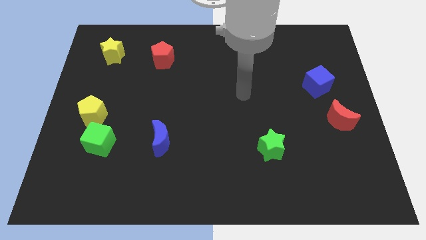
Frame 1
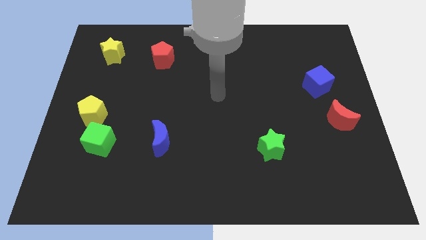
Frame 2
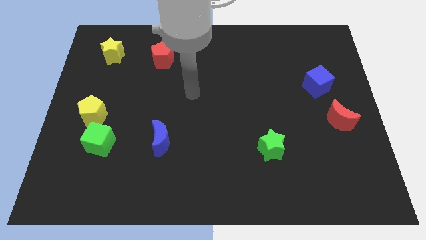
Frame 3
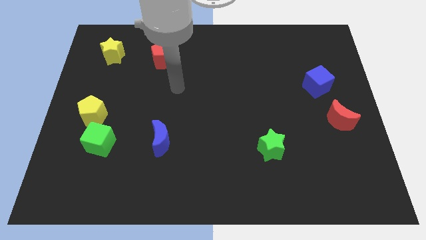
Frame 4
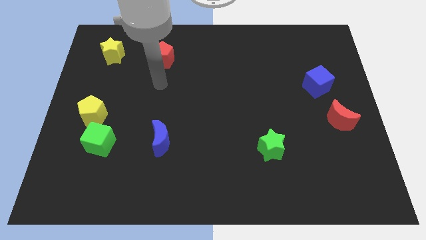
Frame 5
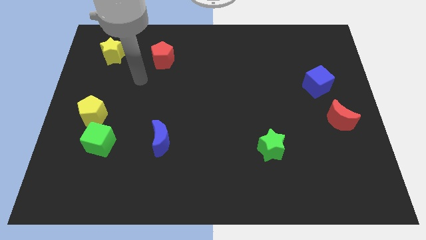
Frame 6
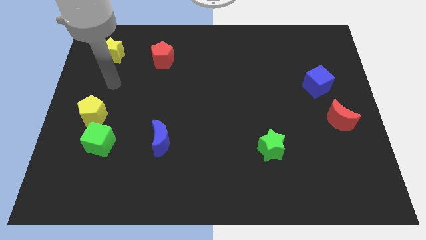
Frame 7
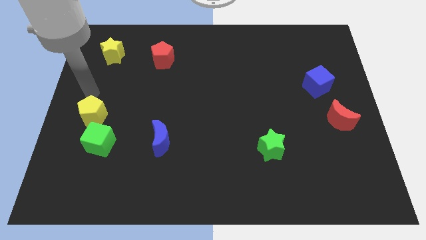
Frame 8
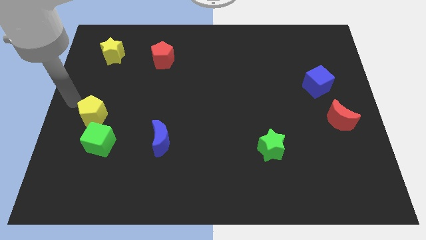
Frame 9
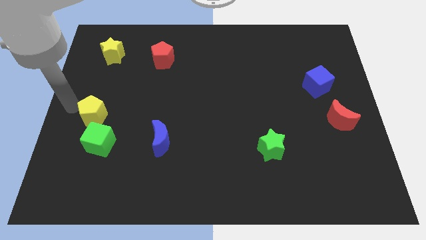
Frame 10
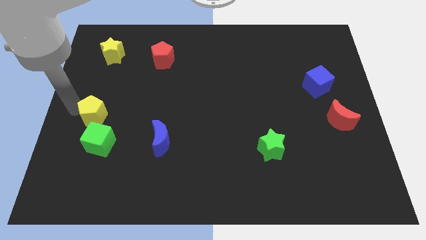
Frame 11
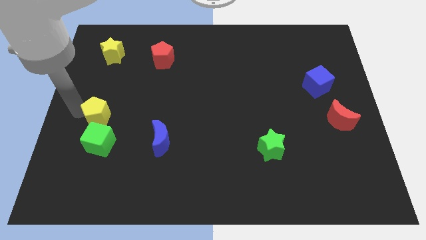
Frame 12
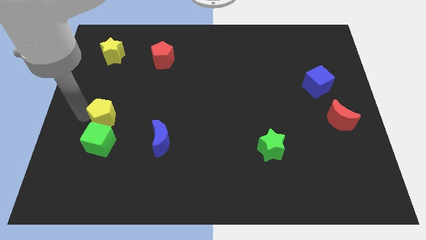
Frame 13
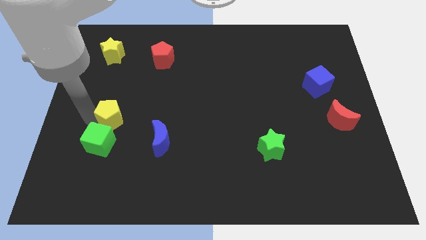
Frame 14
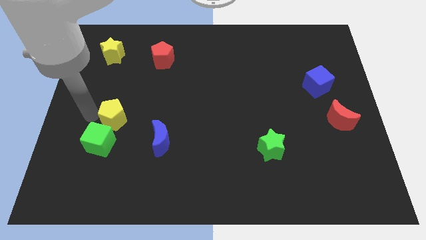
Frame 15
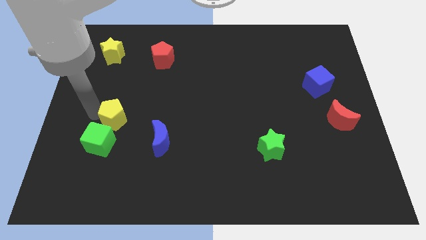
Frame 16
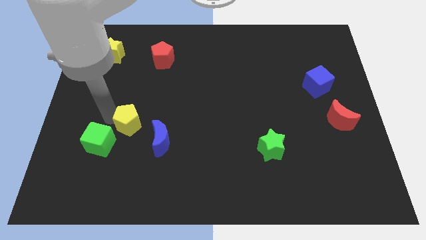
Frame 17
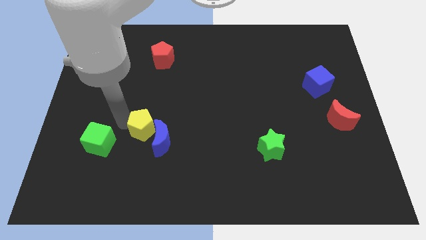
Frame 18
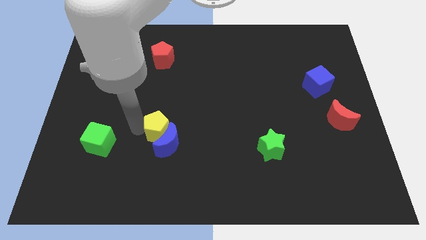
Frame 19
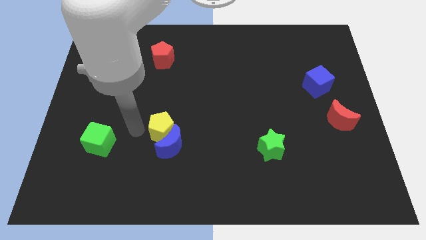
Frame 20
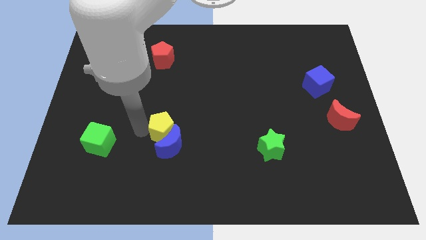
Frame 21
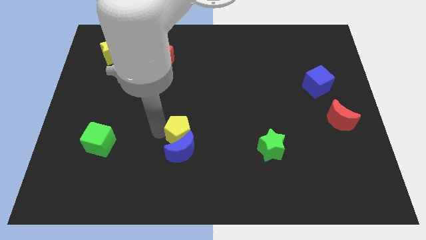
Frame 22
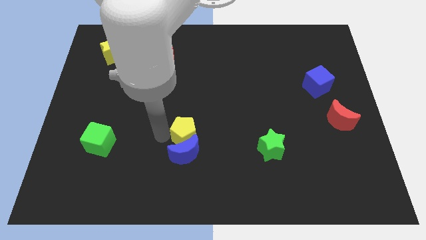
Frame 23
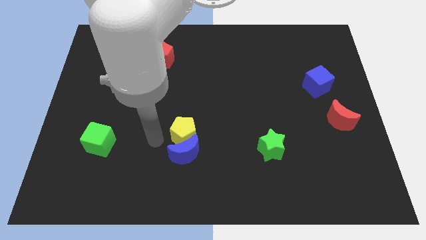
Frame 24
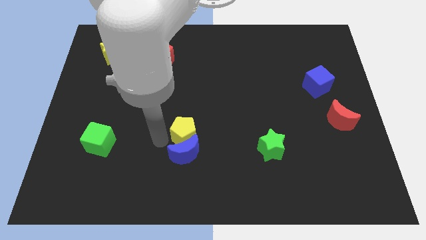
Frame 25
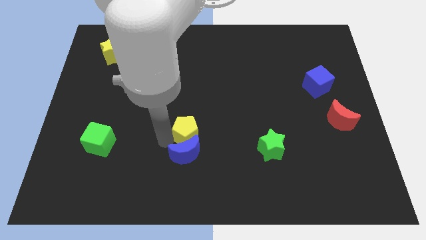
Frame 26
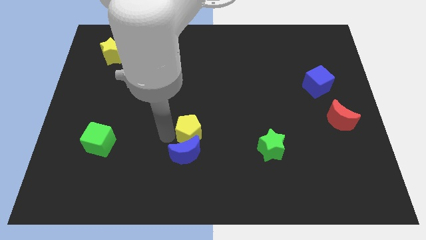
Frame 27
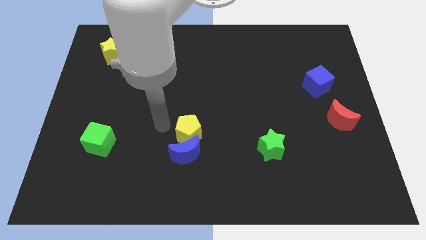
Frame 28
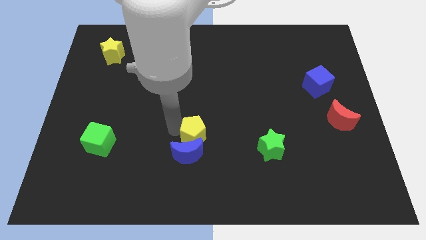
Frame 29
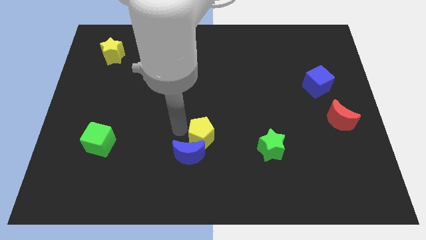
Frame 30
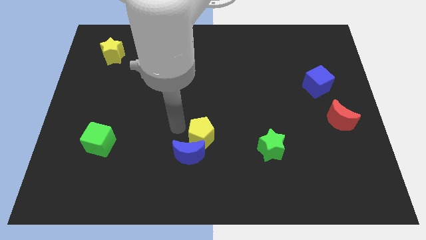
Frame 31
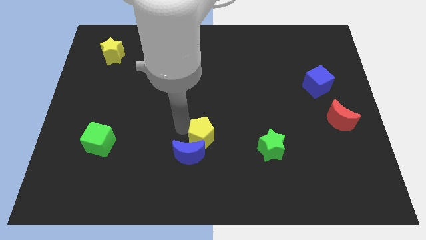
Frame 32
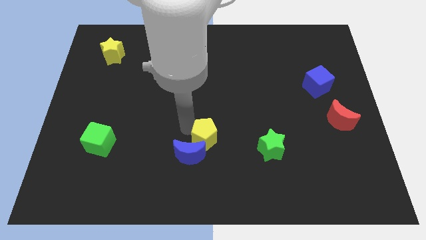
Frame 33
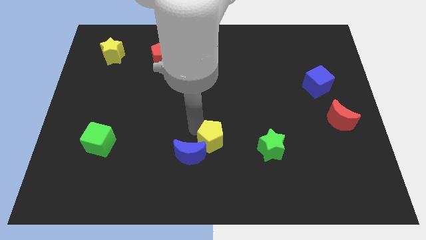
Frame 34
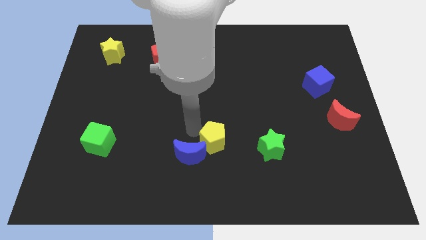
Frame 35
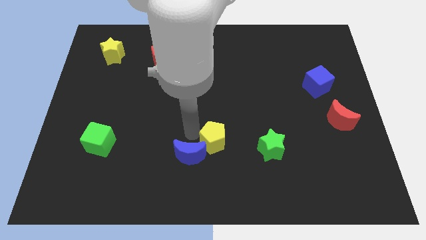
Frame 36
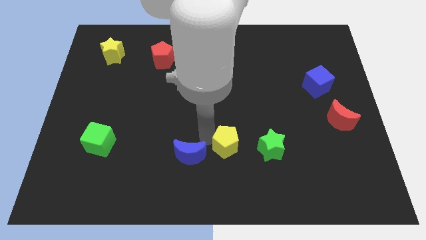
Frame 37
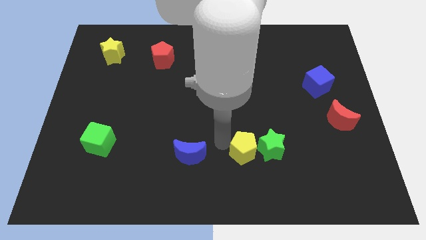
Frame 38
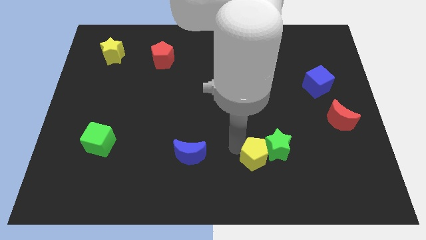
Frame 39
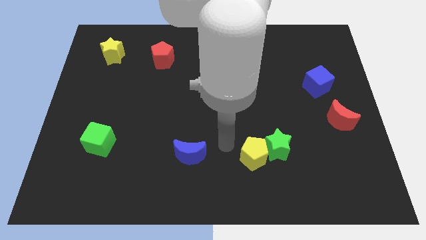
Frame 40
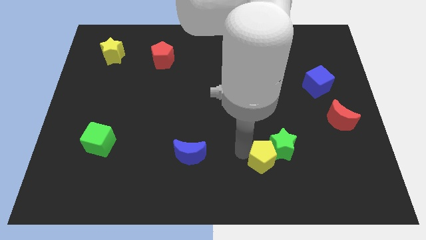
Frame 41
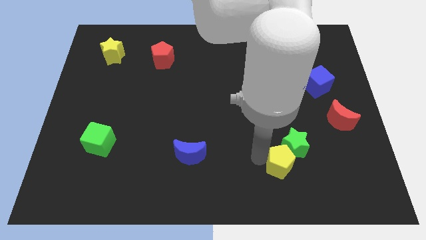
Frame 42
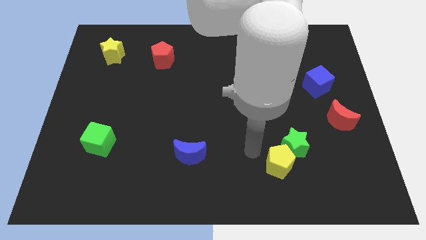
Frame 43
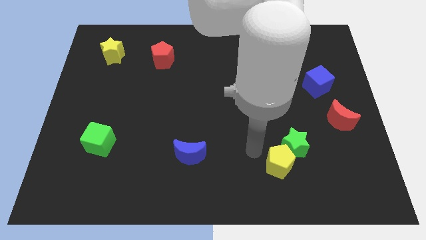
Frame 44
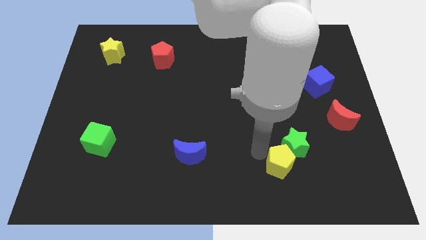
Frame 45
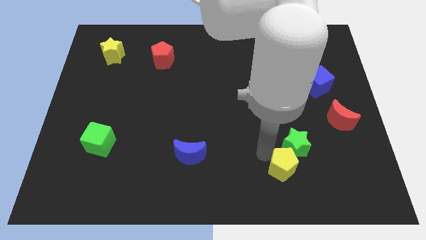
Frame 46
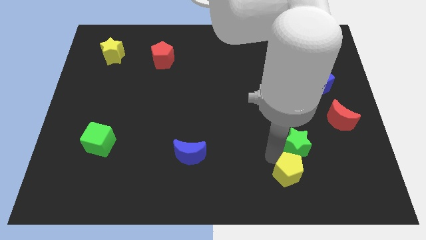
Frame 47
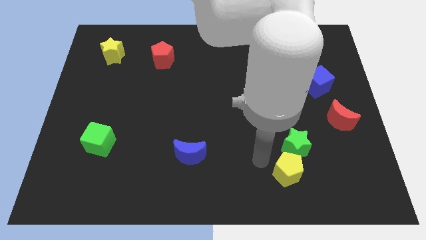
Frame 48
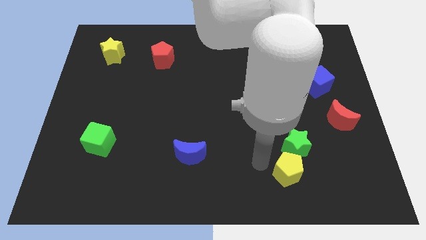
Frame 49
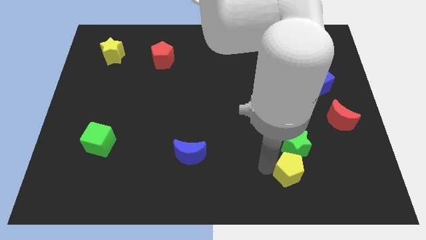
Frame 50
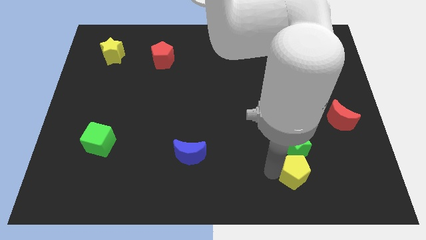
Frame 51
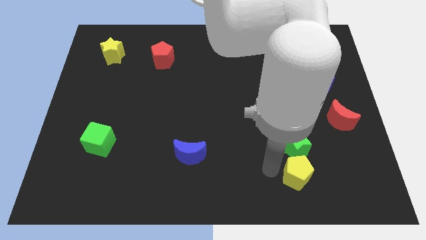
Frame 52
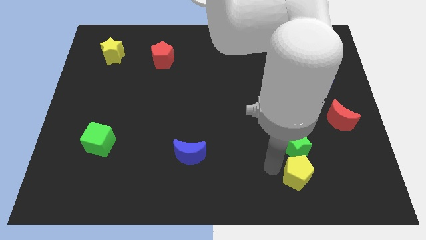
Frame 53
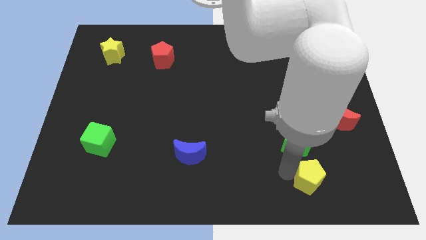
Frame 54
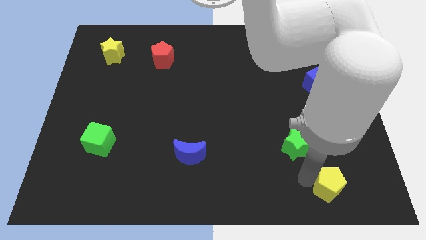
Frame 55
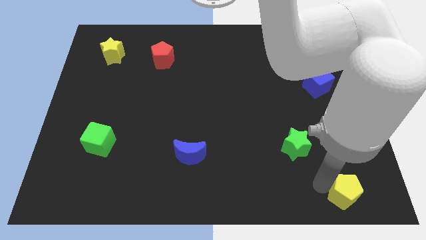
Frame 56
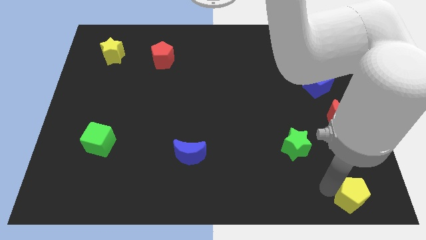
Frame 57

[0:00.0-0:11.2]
slide the yellow pentagon to the bottom right of the board

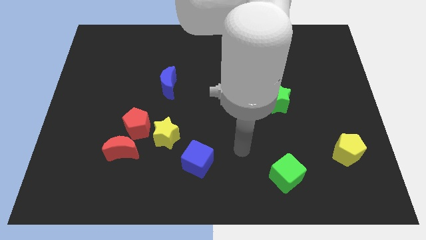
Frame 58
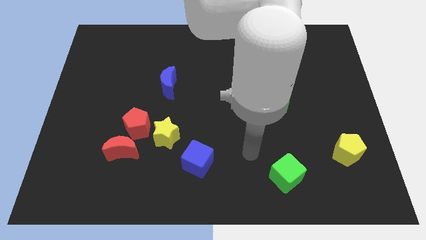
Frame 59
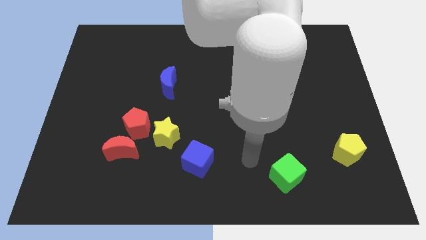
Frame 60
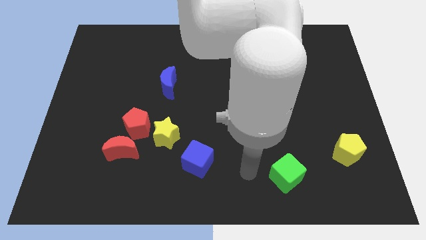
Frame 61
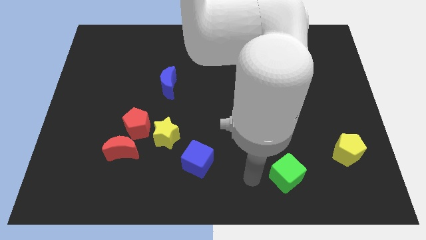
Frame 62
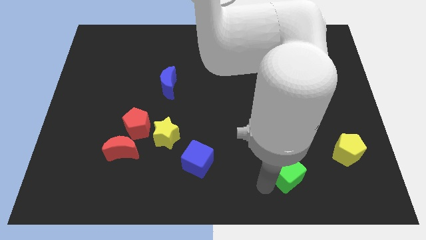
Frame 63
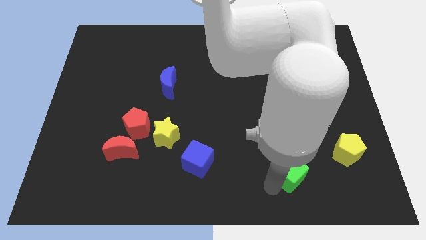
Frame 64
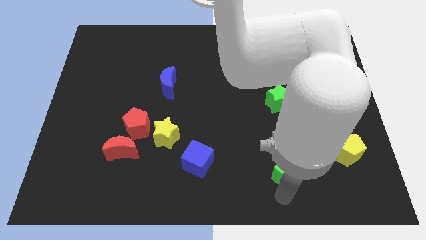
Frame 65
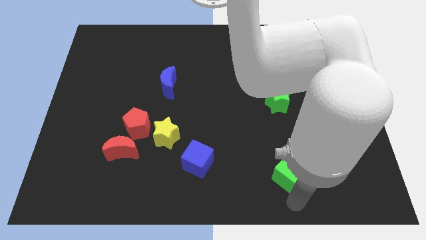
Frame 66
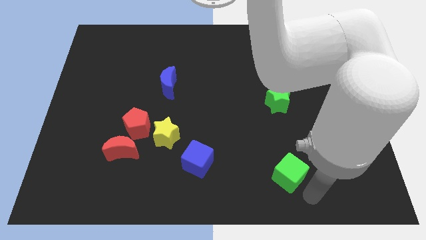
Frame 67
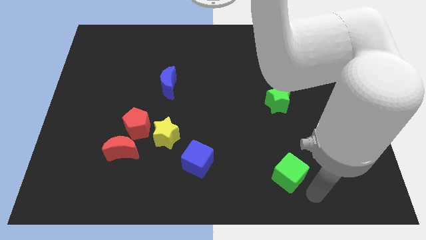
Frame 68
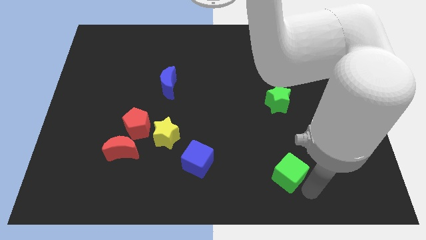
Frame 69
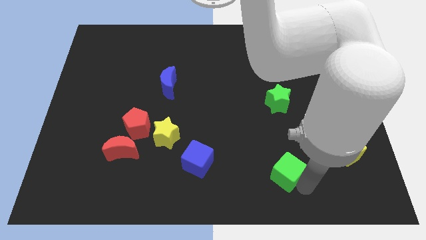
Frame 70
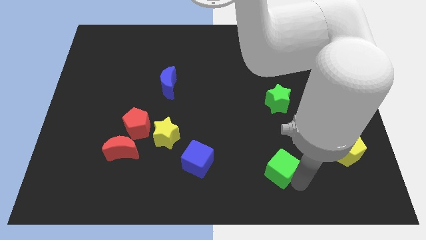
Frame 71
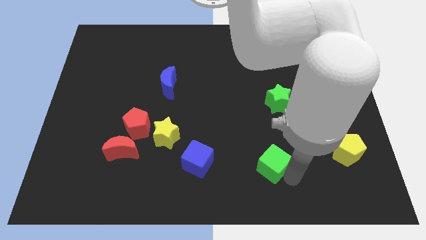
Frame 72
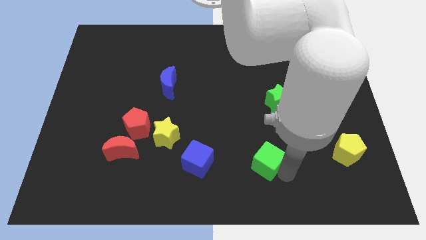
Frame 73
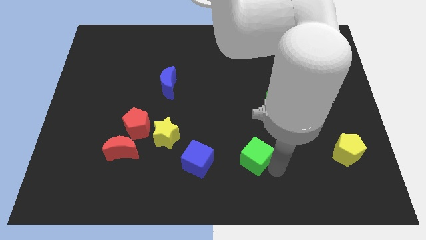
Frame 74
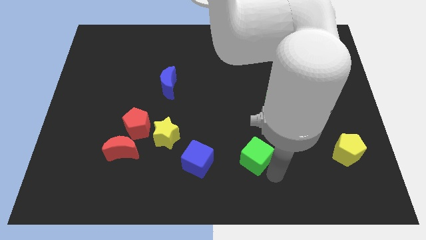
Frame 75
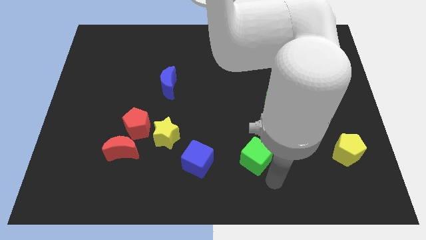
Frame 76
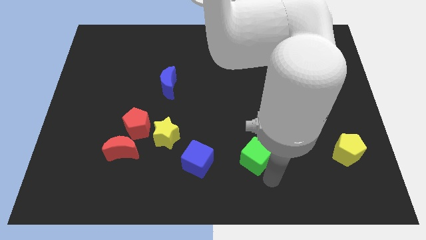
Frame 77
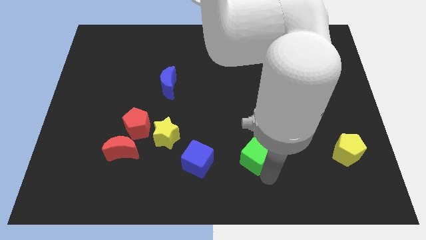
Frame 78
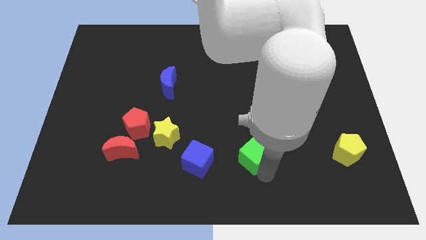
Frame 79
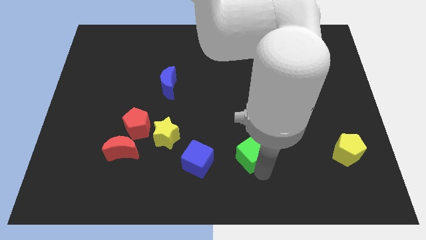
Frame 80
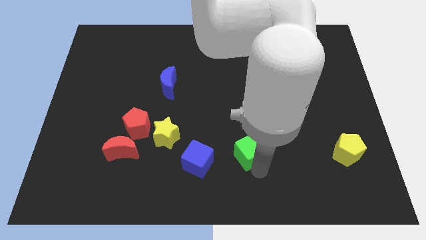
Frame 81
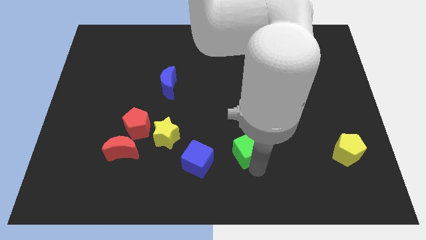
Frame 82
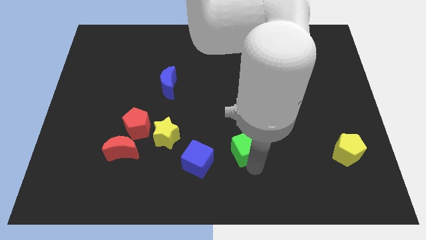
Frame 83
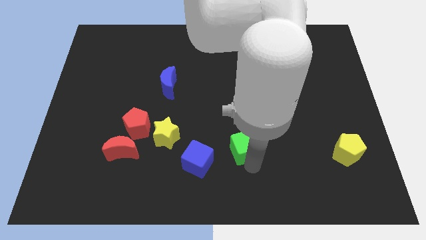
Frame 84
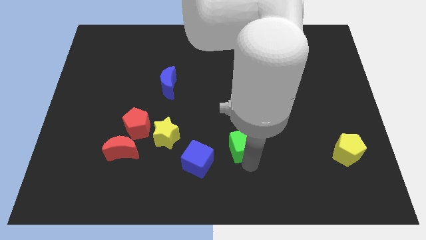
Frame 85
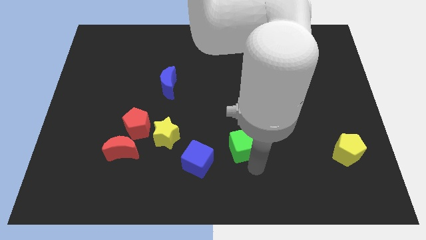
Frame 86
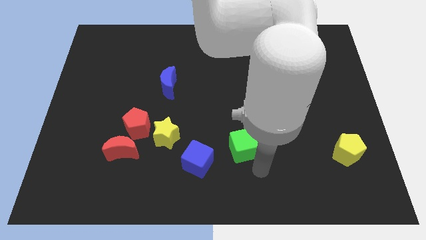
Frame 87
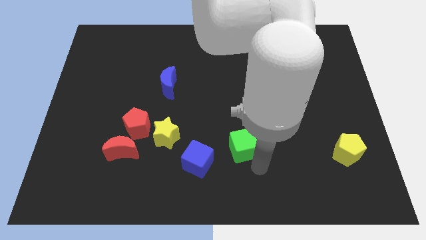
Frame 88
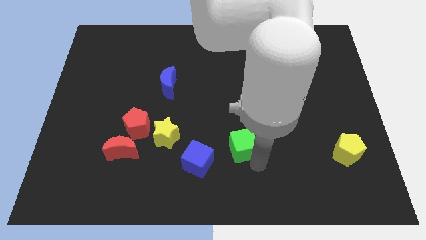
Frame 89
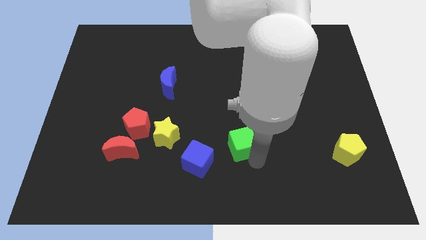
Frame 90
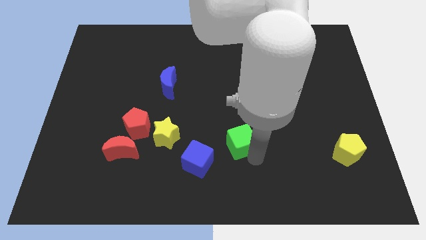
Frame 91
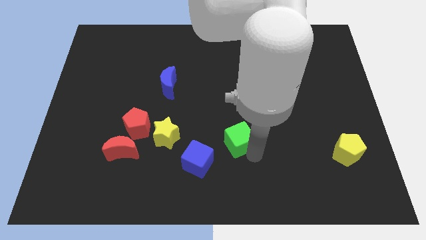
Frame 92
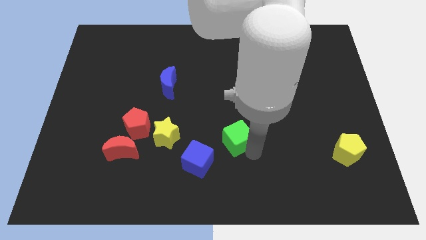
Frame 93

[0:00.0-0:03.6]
move the green cube to the middle of the board
